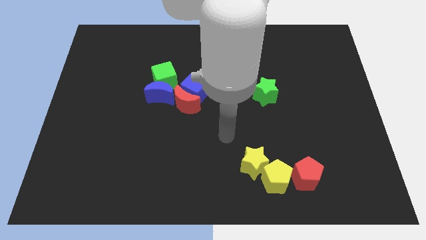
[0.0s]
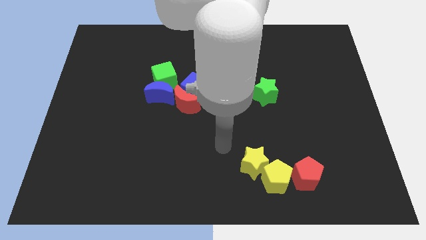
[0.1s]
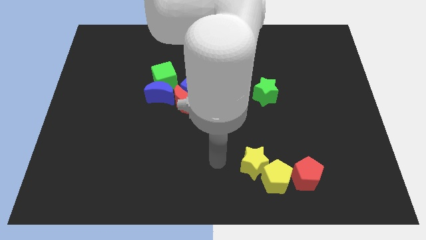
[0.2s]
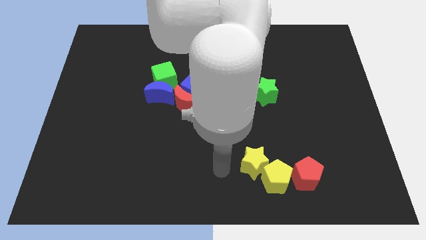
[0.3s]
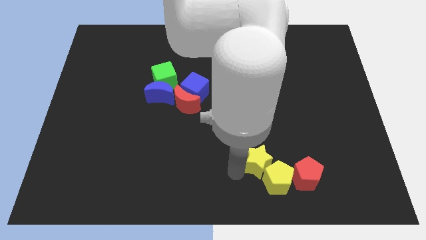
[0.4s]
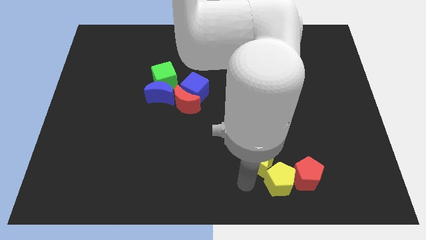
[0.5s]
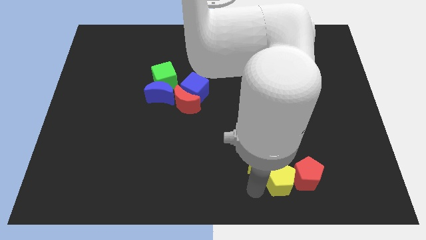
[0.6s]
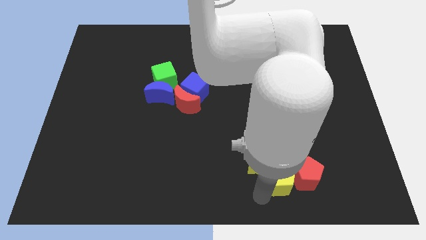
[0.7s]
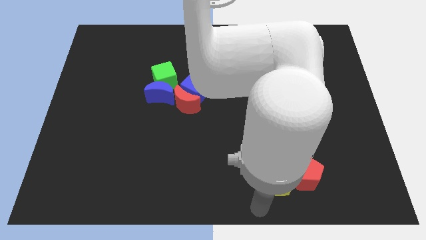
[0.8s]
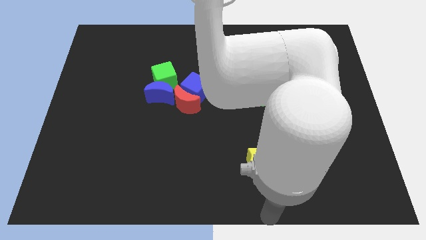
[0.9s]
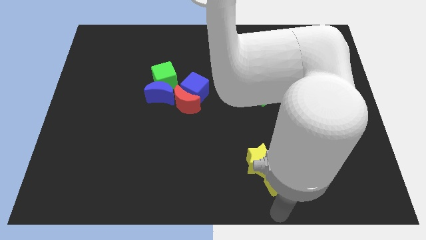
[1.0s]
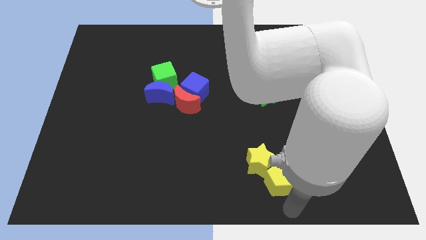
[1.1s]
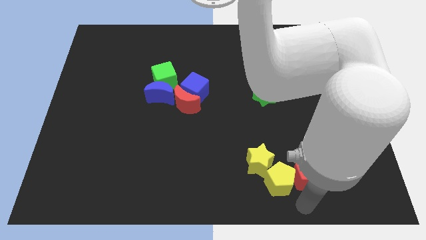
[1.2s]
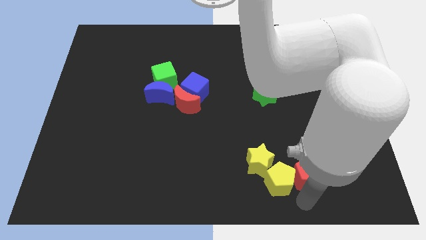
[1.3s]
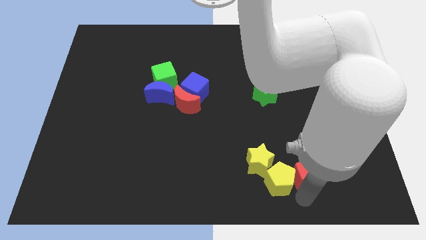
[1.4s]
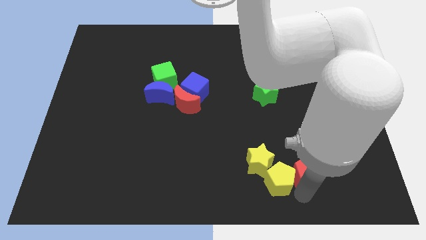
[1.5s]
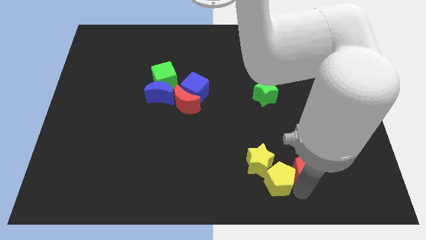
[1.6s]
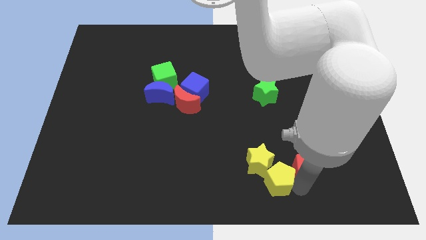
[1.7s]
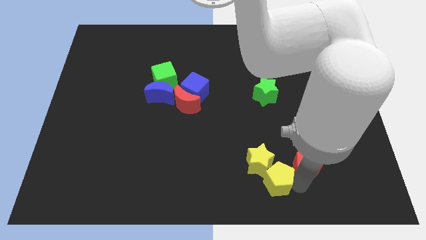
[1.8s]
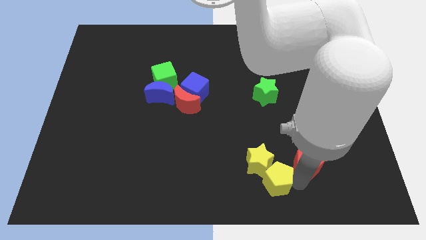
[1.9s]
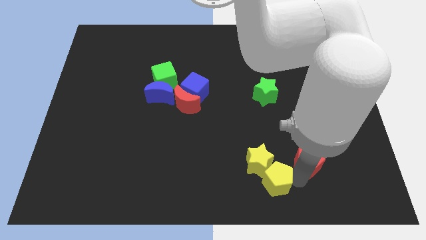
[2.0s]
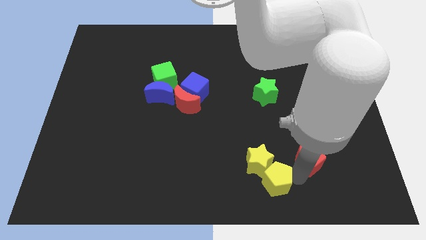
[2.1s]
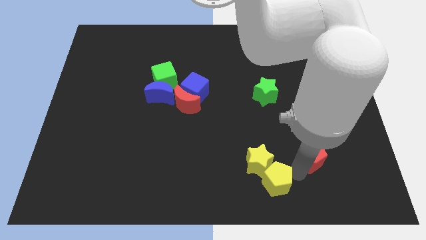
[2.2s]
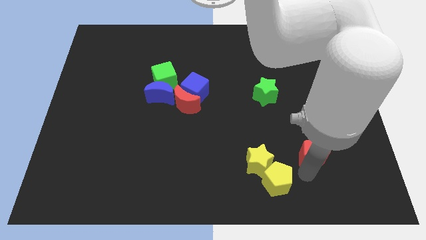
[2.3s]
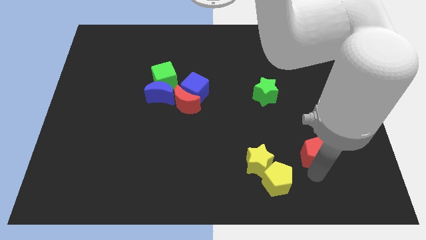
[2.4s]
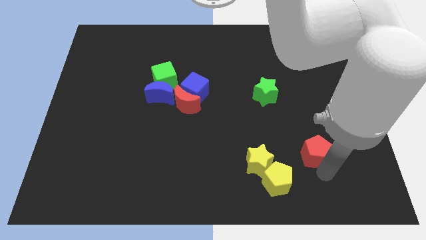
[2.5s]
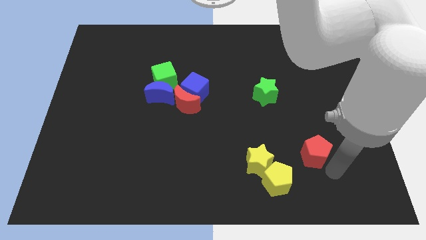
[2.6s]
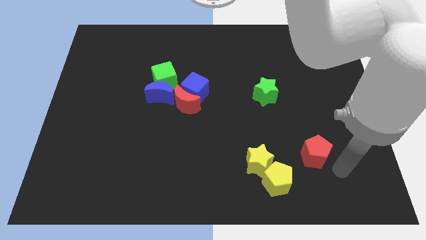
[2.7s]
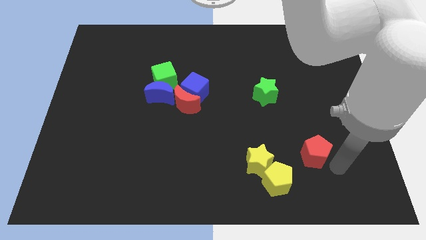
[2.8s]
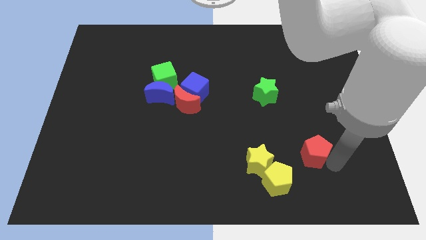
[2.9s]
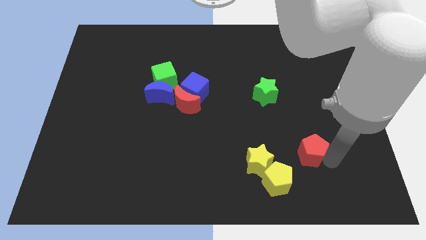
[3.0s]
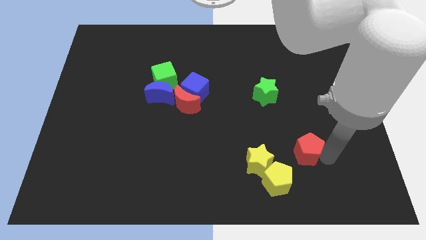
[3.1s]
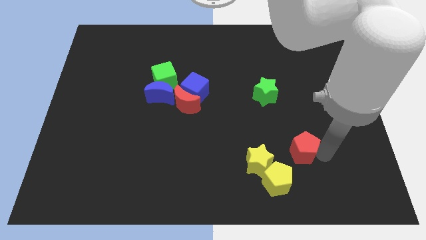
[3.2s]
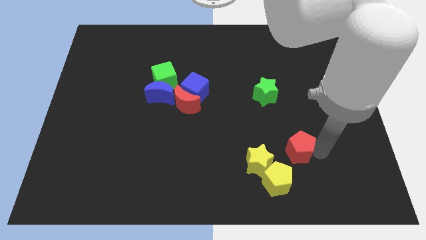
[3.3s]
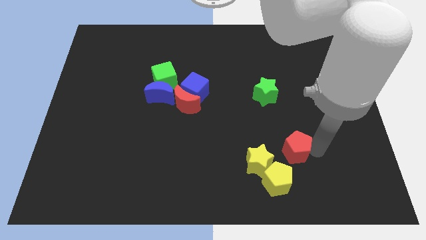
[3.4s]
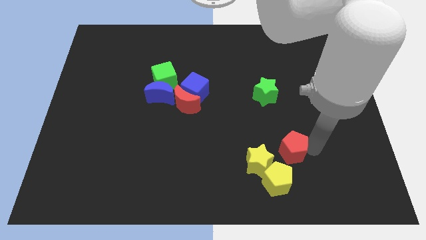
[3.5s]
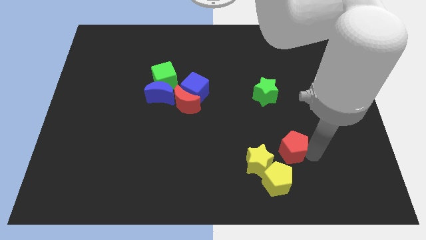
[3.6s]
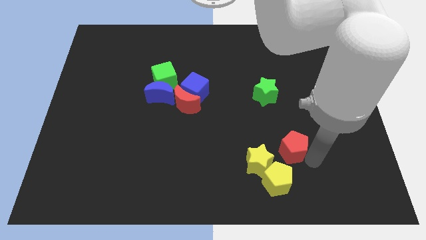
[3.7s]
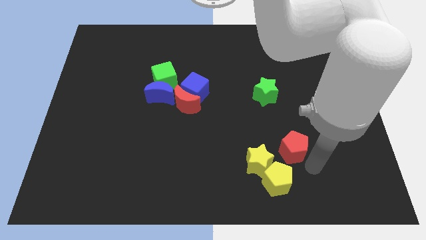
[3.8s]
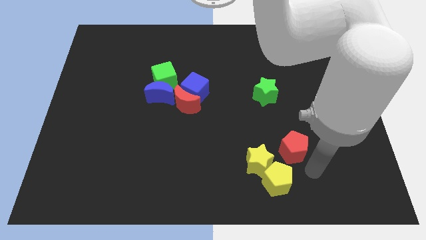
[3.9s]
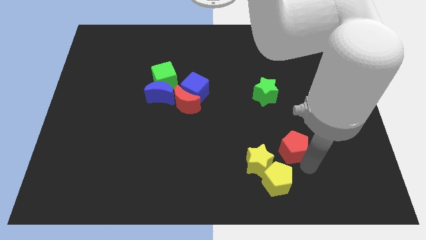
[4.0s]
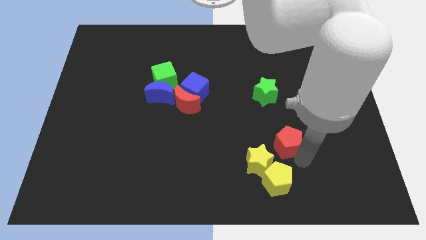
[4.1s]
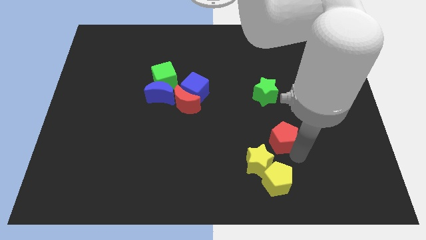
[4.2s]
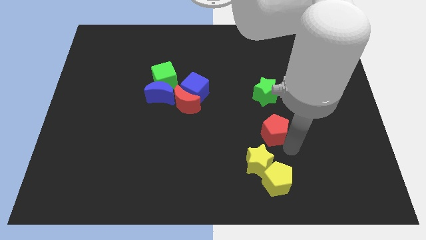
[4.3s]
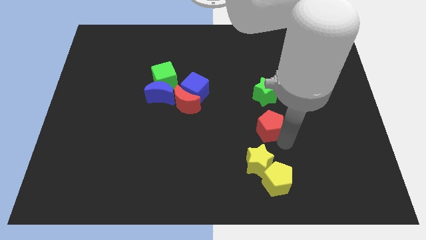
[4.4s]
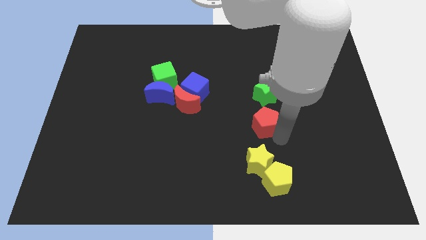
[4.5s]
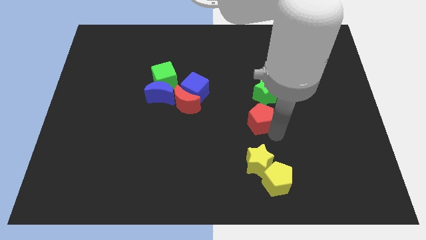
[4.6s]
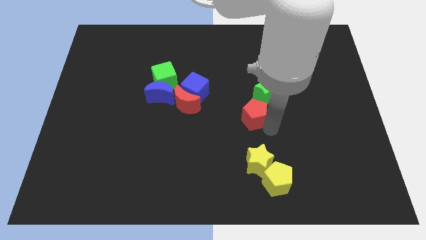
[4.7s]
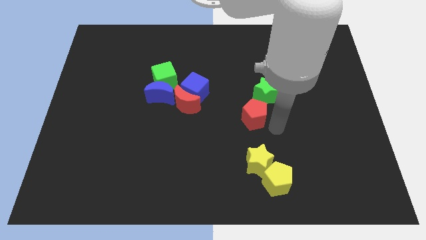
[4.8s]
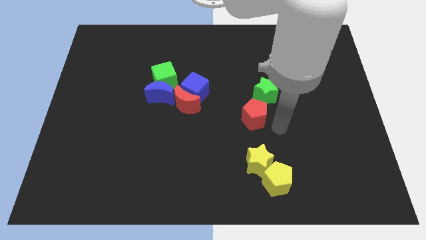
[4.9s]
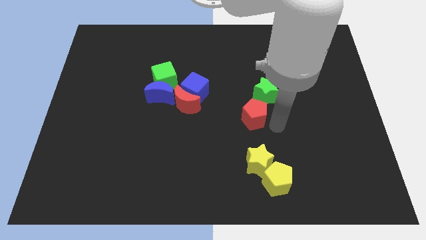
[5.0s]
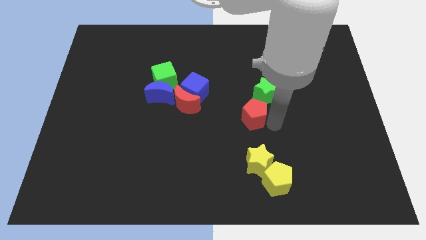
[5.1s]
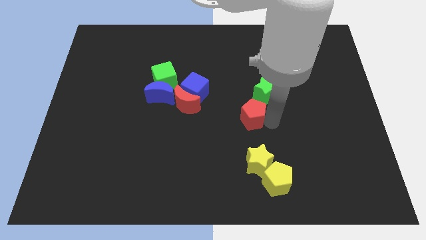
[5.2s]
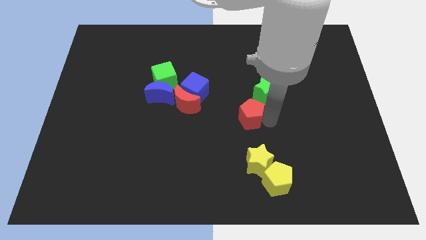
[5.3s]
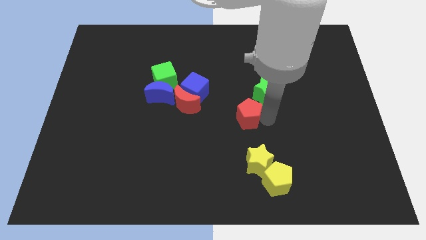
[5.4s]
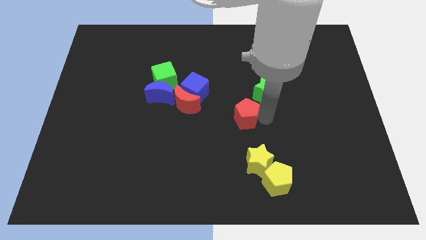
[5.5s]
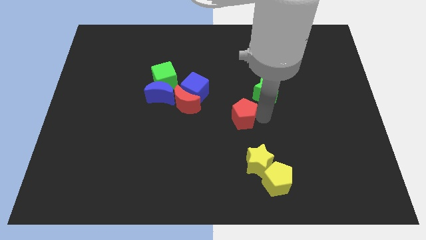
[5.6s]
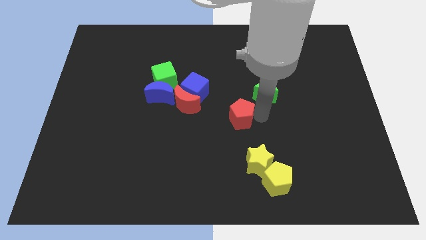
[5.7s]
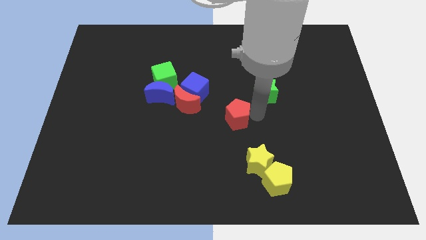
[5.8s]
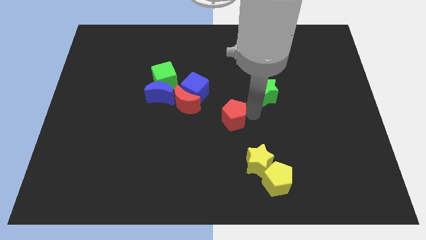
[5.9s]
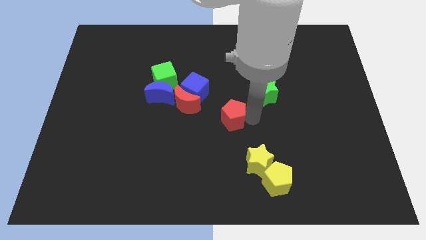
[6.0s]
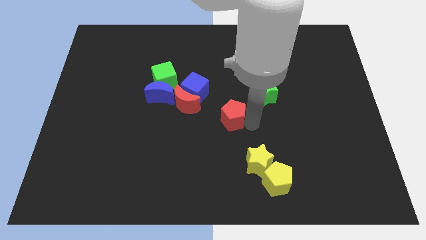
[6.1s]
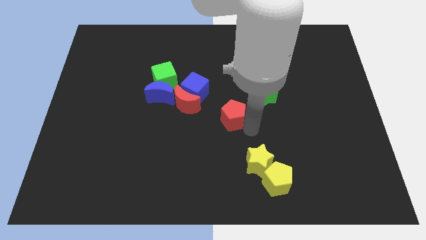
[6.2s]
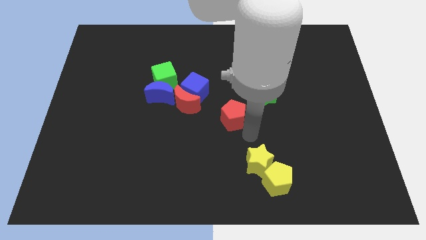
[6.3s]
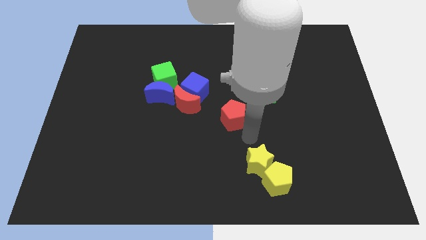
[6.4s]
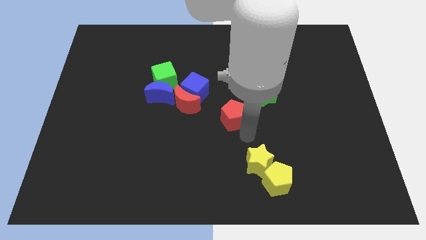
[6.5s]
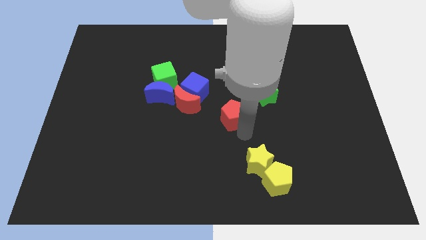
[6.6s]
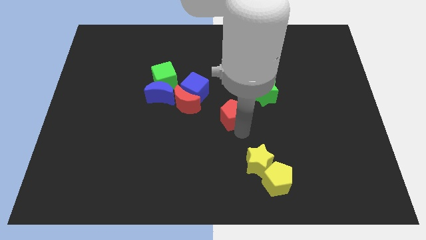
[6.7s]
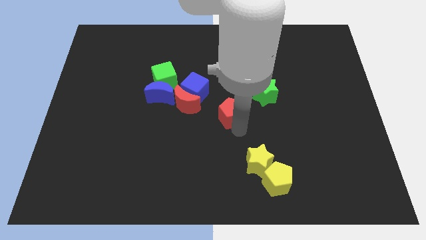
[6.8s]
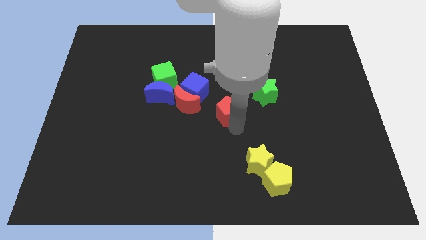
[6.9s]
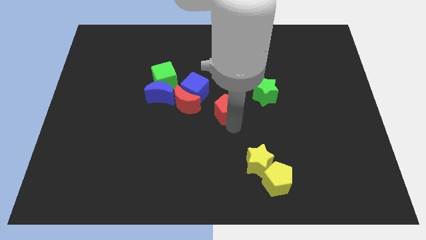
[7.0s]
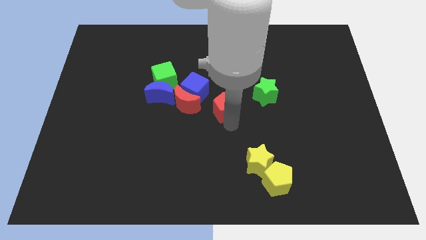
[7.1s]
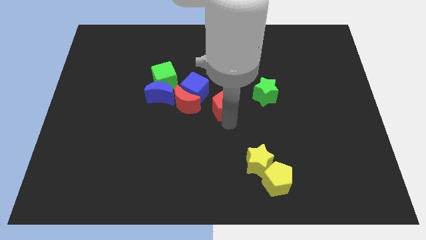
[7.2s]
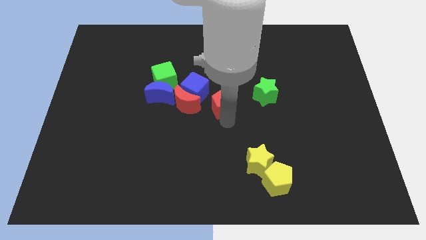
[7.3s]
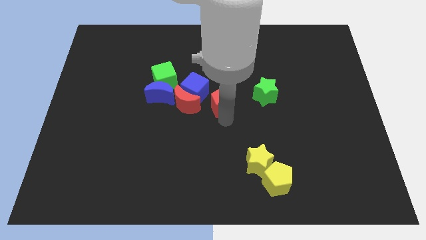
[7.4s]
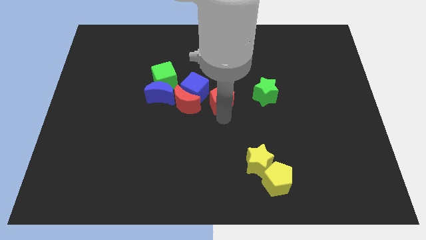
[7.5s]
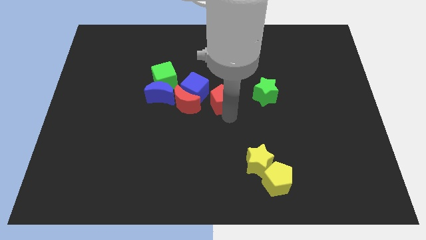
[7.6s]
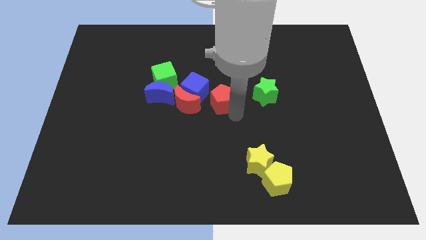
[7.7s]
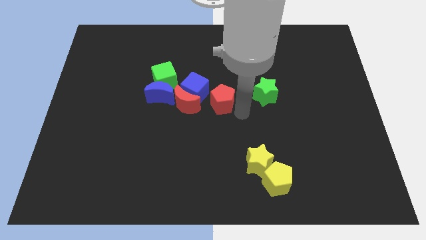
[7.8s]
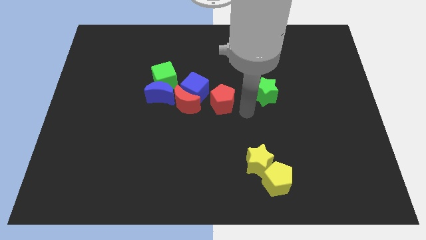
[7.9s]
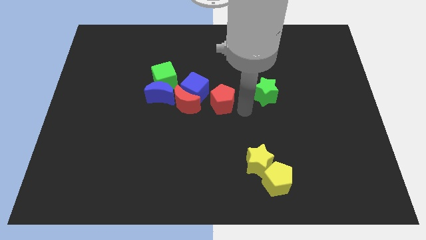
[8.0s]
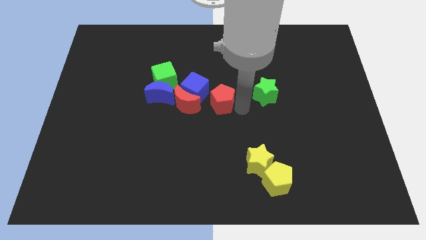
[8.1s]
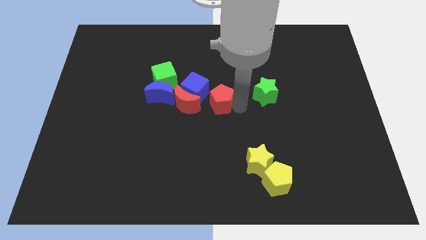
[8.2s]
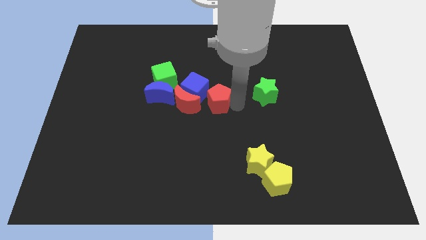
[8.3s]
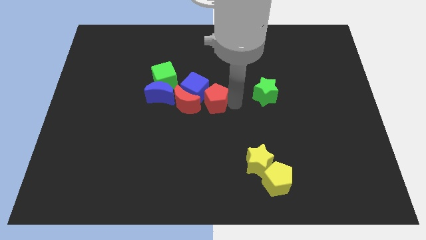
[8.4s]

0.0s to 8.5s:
push the red pentagon close to the blue cube
